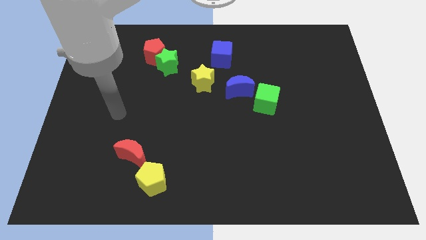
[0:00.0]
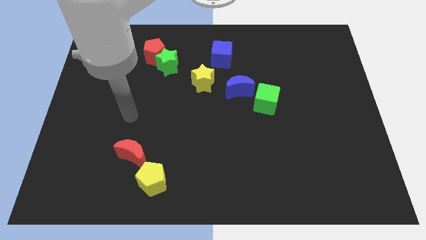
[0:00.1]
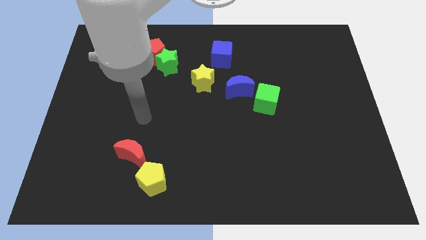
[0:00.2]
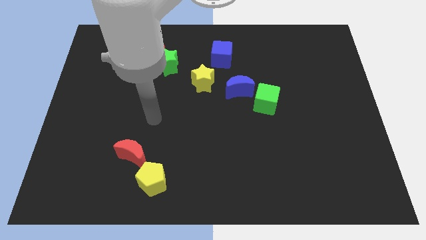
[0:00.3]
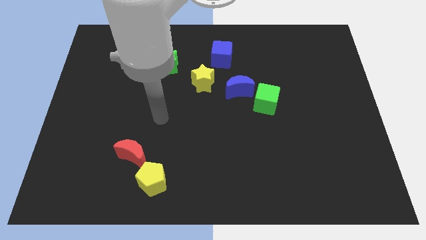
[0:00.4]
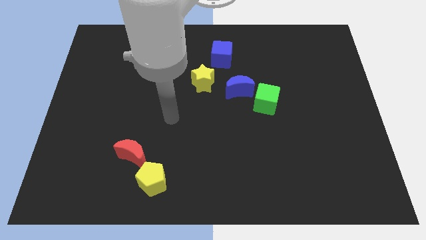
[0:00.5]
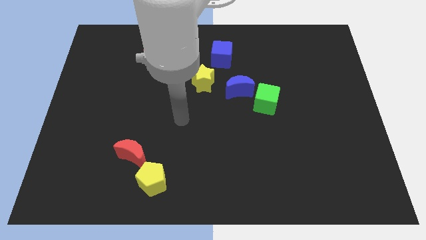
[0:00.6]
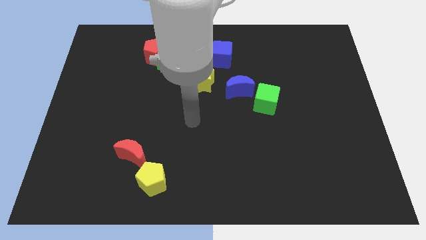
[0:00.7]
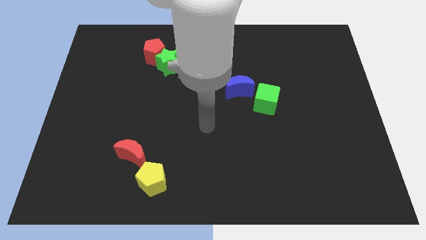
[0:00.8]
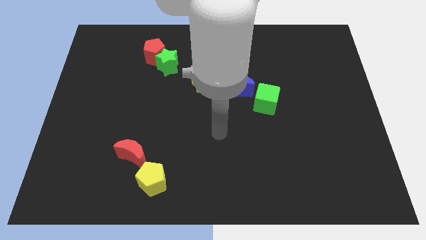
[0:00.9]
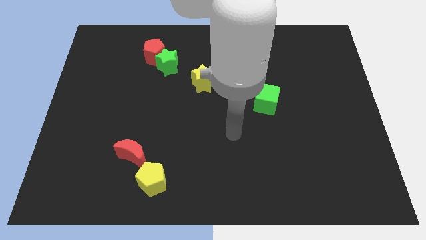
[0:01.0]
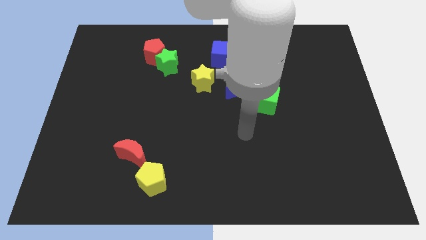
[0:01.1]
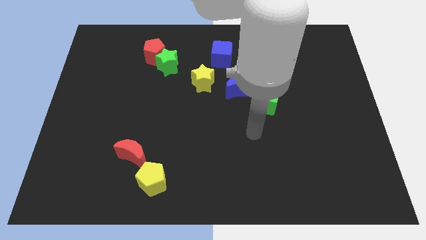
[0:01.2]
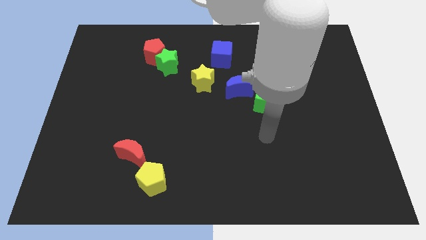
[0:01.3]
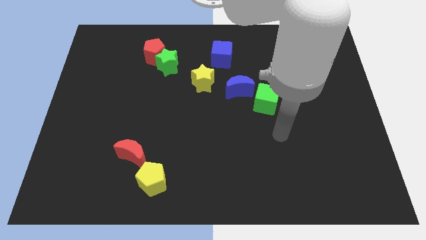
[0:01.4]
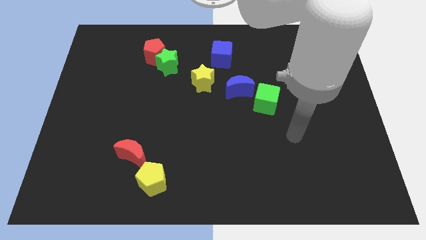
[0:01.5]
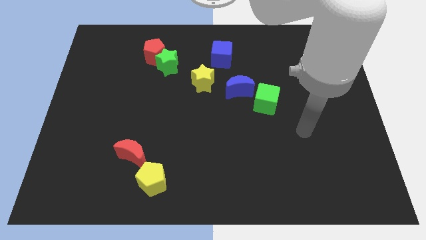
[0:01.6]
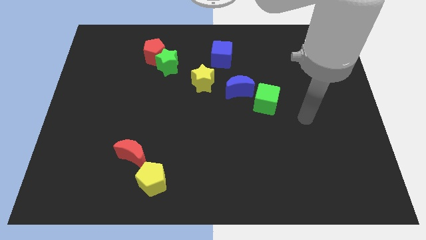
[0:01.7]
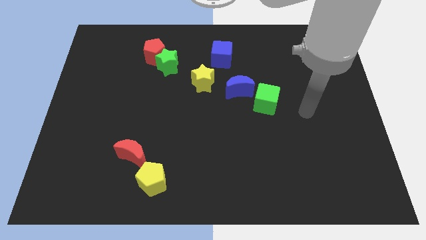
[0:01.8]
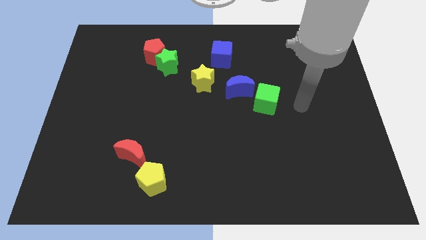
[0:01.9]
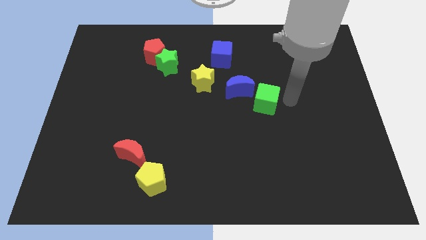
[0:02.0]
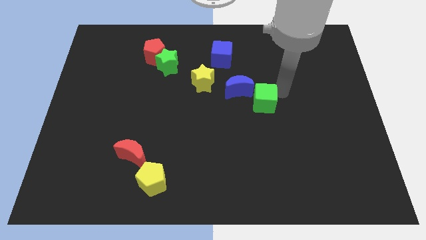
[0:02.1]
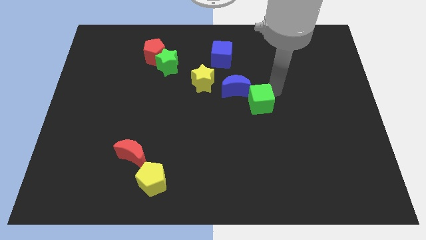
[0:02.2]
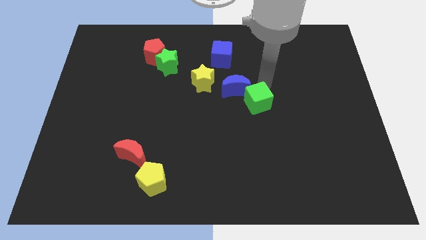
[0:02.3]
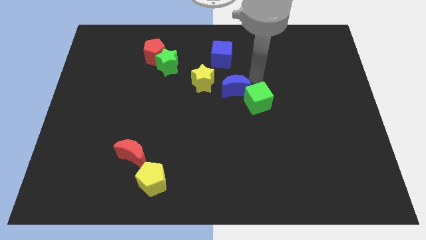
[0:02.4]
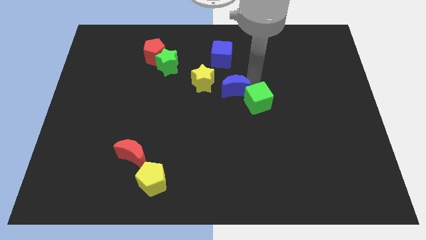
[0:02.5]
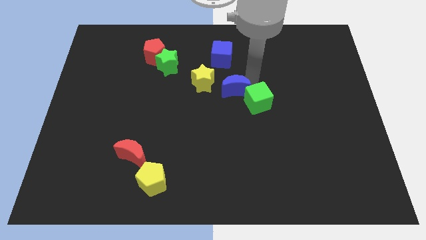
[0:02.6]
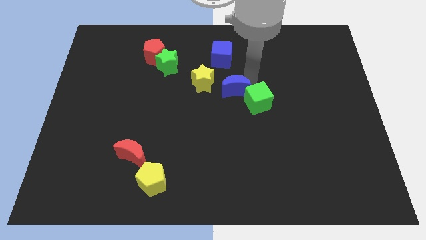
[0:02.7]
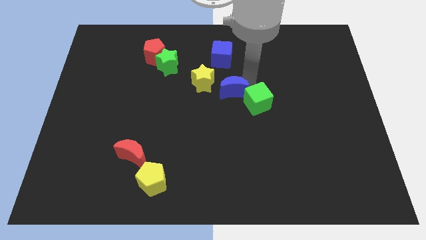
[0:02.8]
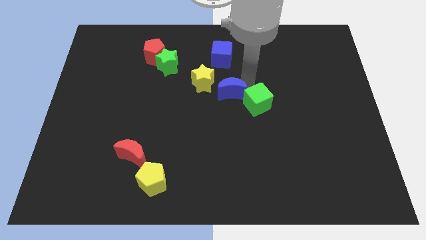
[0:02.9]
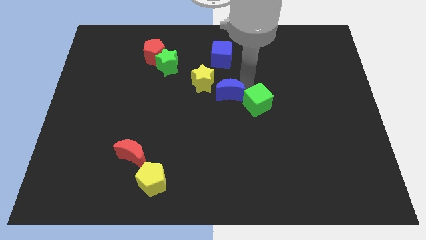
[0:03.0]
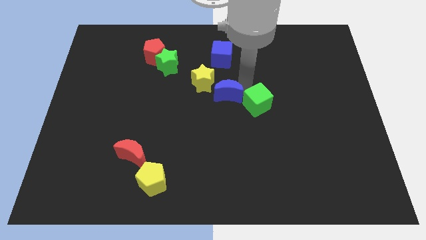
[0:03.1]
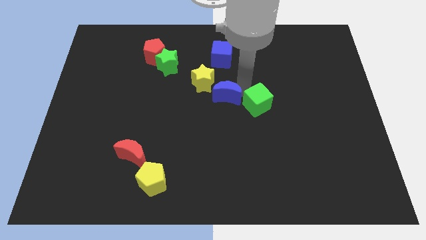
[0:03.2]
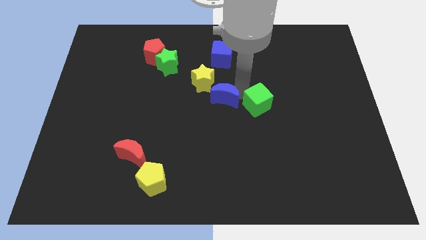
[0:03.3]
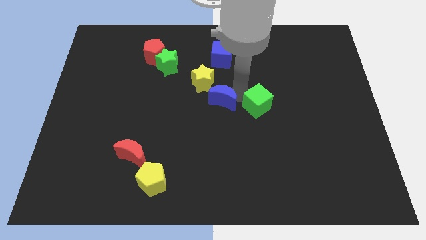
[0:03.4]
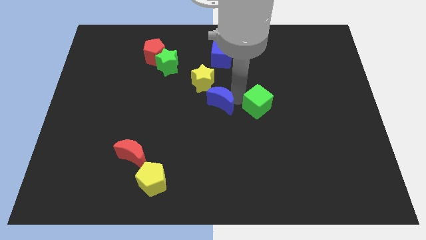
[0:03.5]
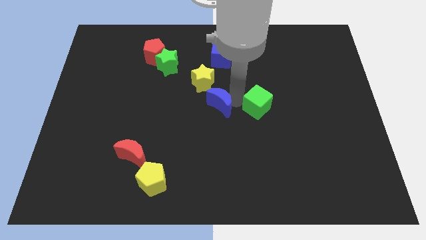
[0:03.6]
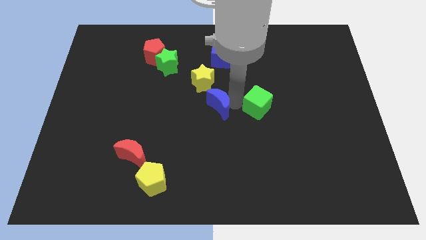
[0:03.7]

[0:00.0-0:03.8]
slightly slide the blue moon downwards and then left

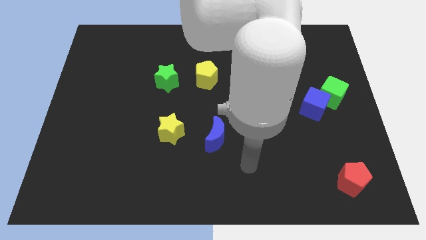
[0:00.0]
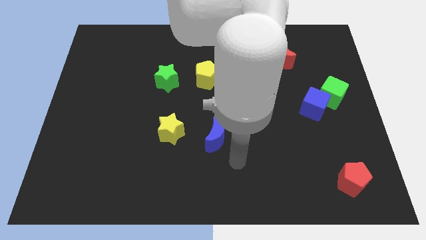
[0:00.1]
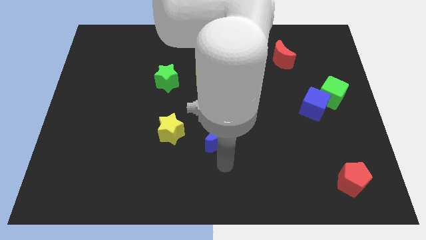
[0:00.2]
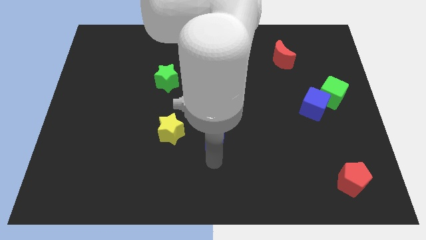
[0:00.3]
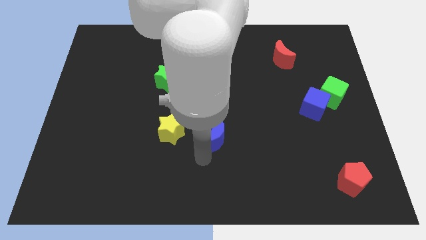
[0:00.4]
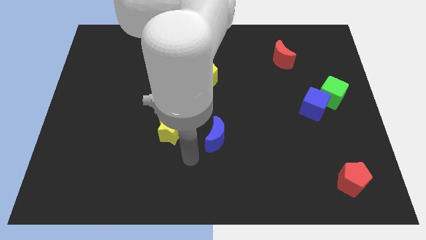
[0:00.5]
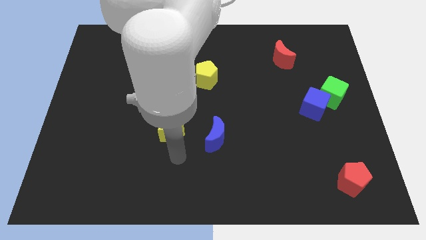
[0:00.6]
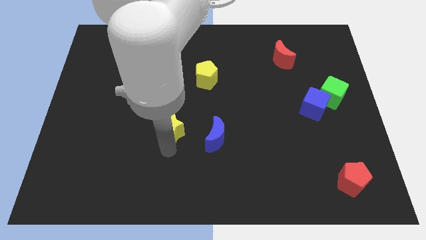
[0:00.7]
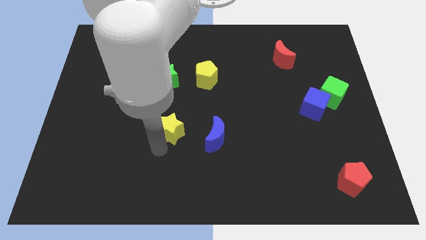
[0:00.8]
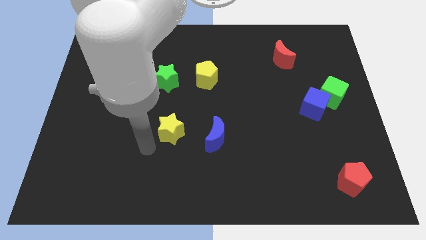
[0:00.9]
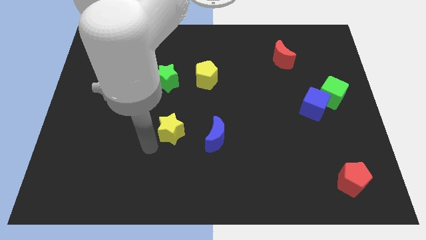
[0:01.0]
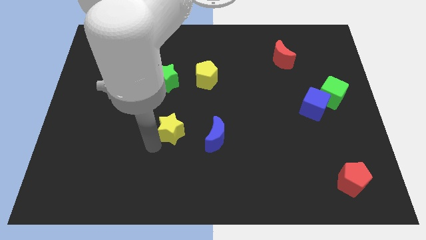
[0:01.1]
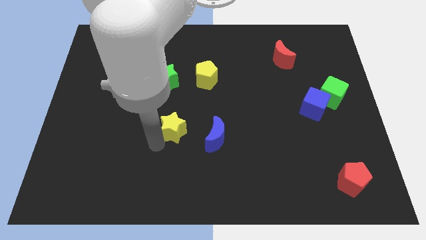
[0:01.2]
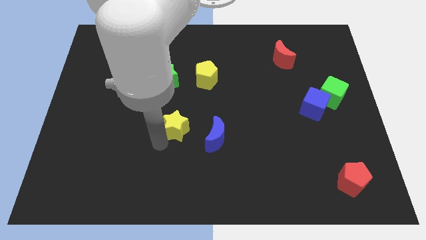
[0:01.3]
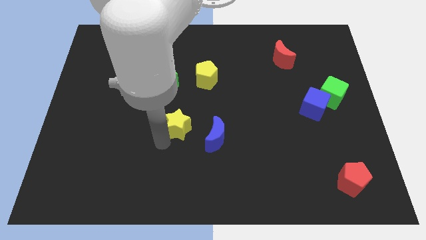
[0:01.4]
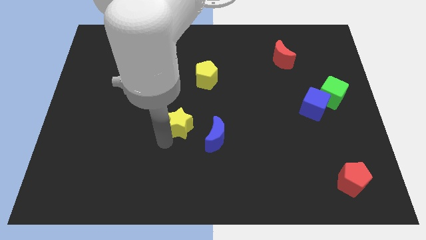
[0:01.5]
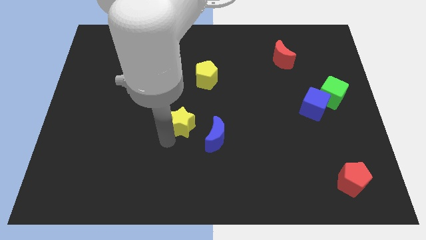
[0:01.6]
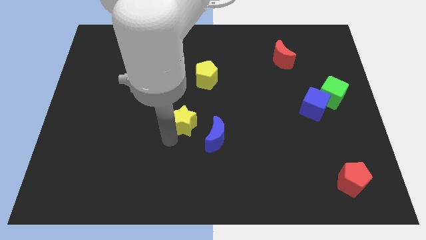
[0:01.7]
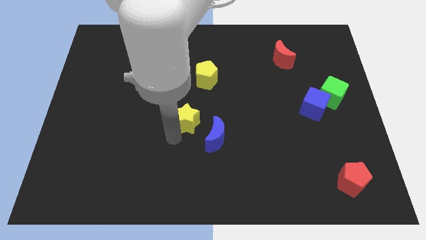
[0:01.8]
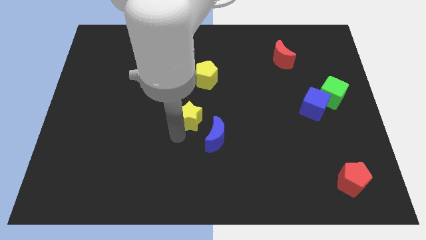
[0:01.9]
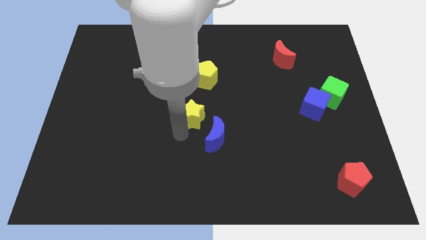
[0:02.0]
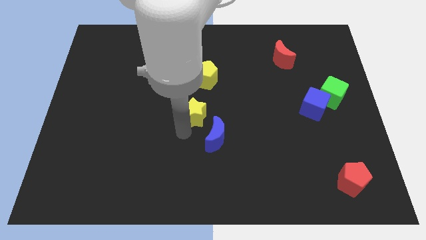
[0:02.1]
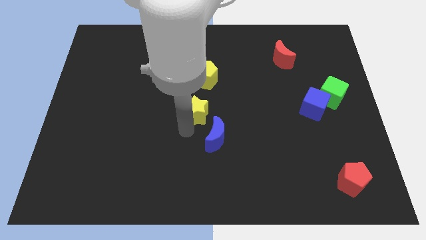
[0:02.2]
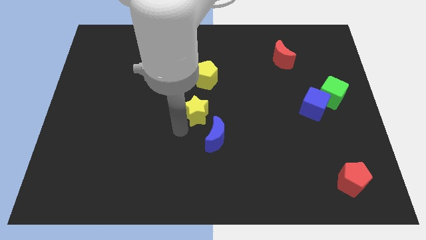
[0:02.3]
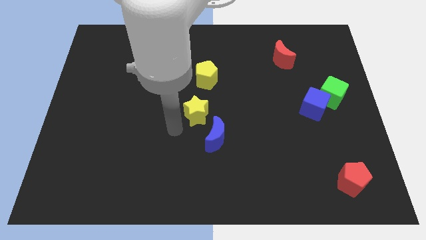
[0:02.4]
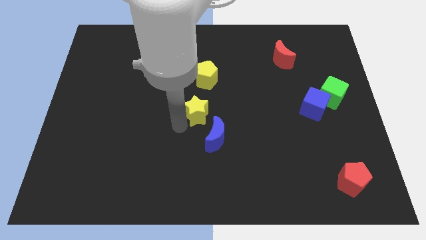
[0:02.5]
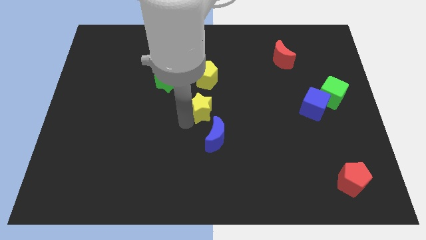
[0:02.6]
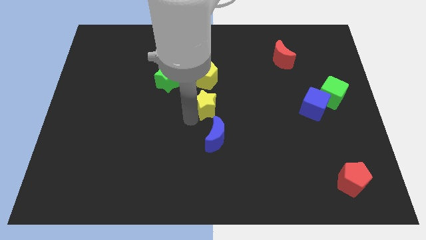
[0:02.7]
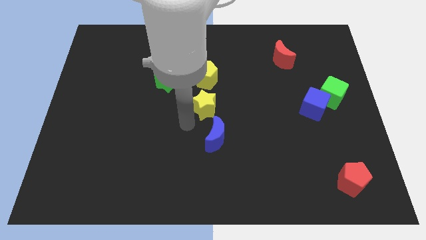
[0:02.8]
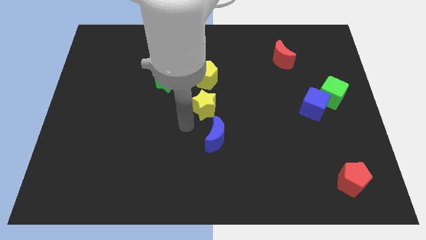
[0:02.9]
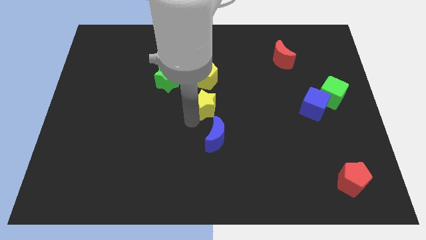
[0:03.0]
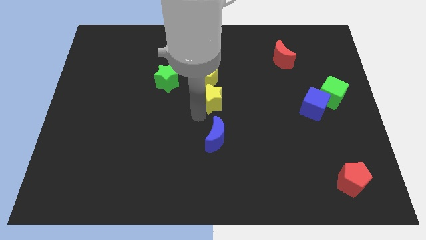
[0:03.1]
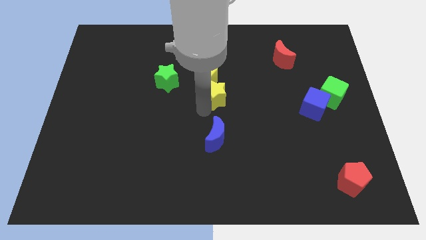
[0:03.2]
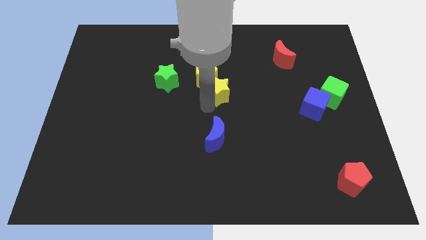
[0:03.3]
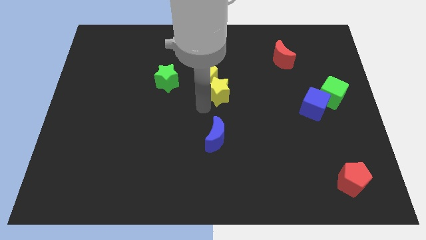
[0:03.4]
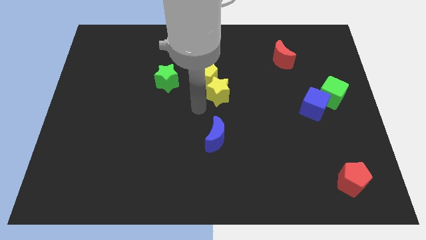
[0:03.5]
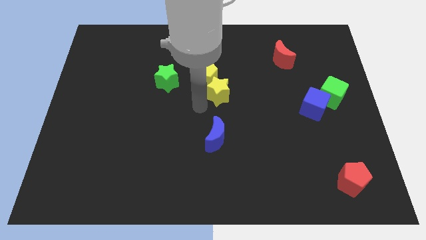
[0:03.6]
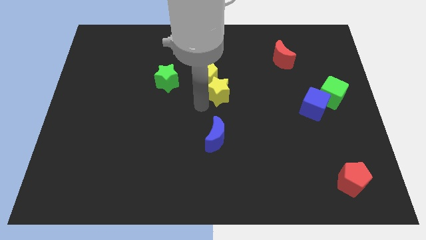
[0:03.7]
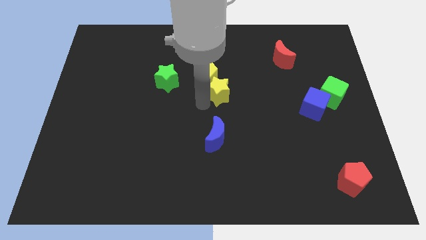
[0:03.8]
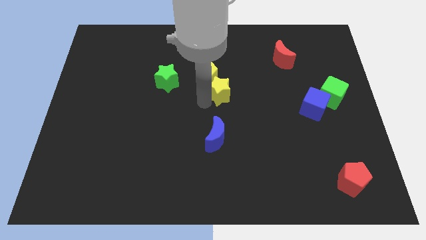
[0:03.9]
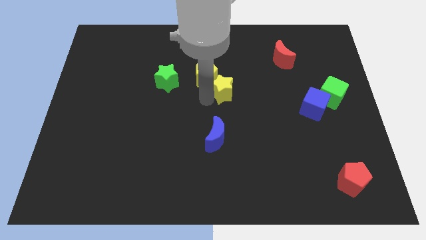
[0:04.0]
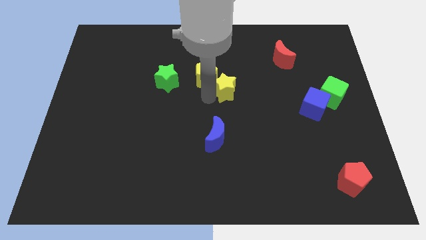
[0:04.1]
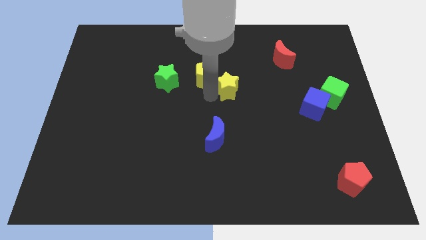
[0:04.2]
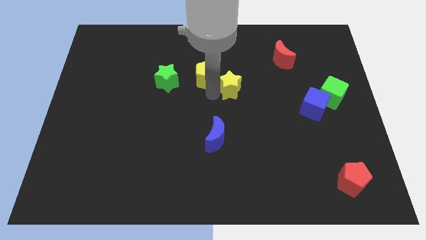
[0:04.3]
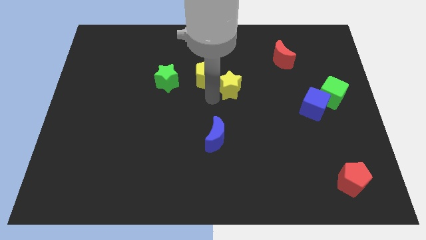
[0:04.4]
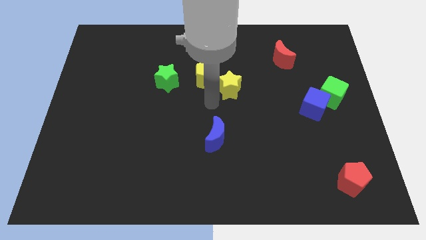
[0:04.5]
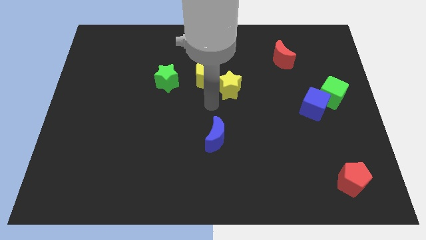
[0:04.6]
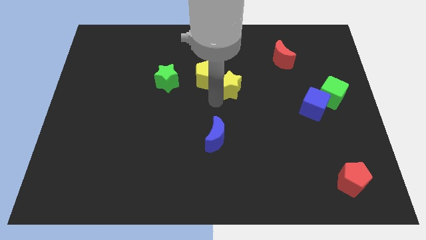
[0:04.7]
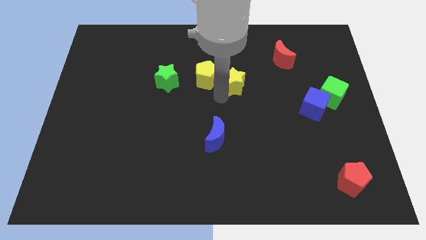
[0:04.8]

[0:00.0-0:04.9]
move the yellow star up and then to the right
